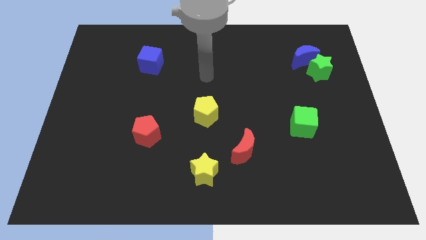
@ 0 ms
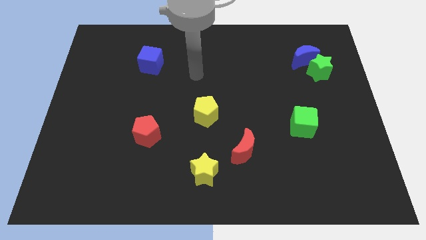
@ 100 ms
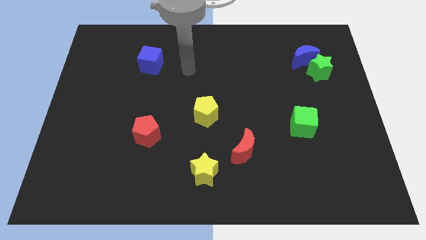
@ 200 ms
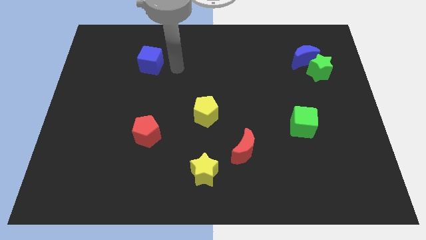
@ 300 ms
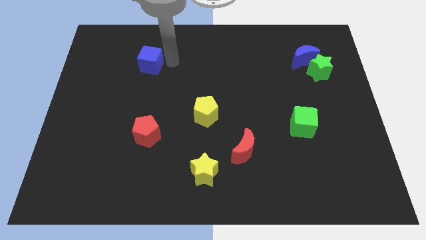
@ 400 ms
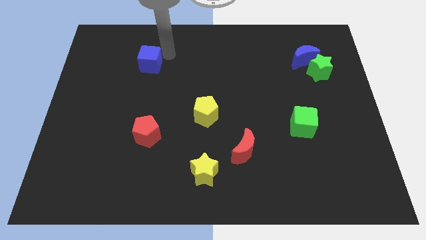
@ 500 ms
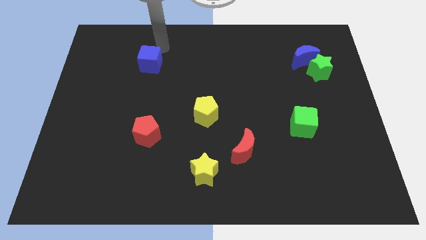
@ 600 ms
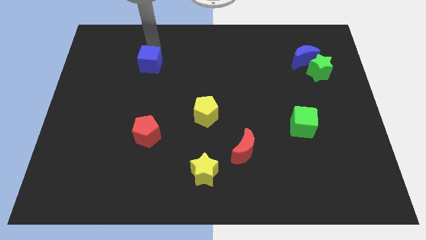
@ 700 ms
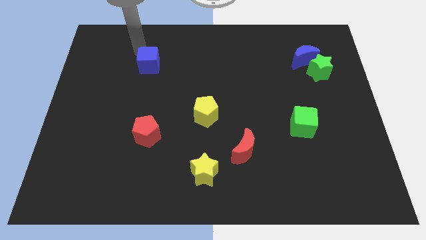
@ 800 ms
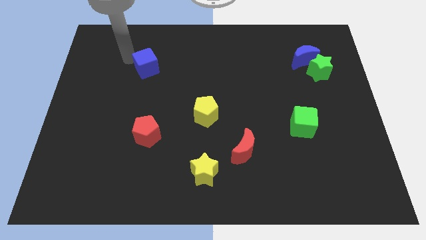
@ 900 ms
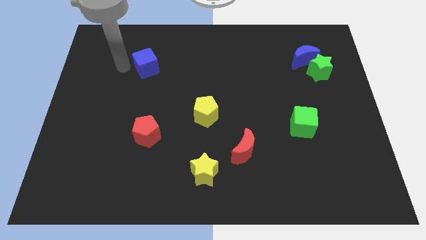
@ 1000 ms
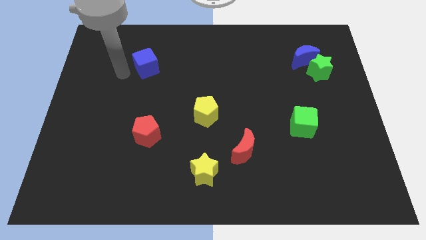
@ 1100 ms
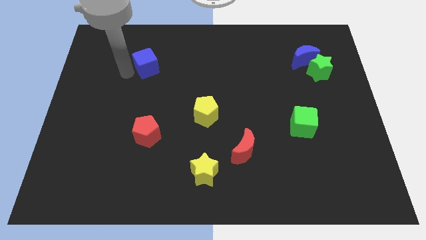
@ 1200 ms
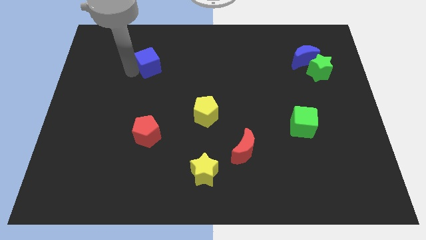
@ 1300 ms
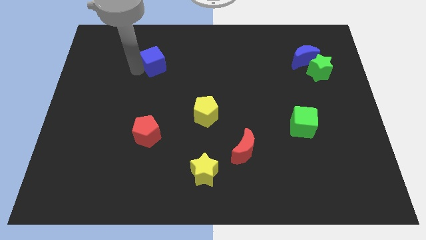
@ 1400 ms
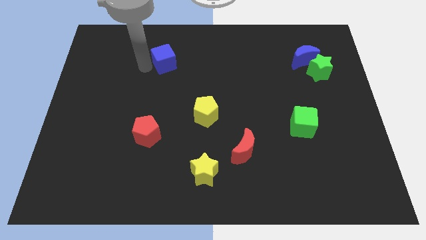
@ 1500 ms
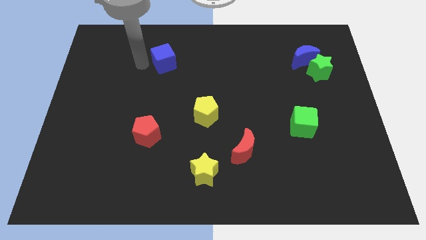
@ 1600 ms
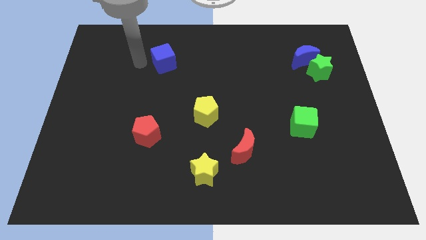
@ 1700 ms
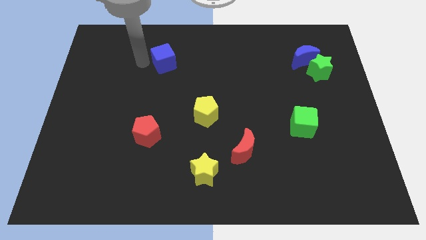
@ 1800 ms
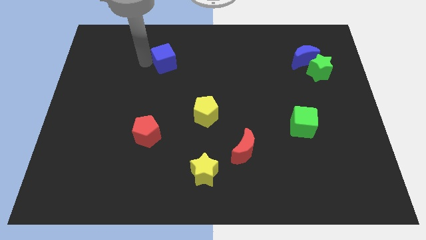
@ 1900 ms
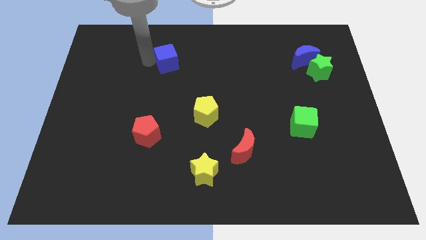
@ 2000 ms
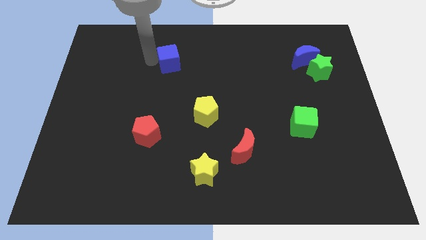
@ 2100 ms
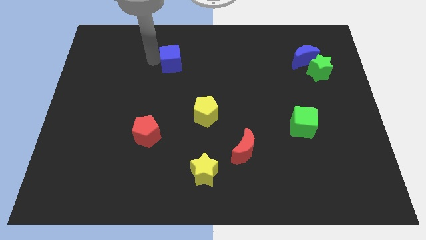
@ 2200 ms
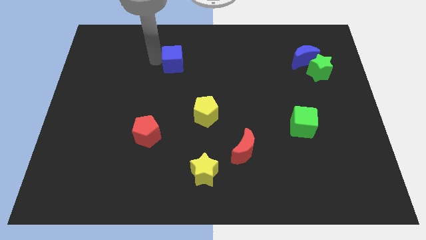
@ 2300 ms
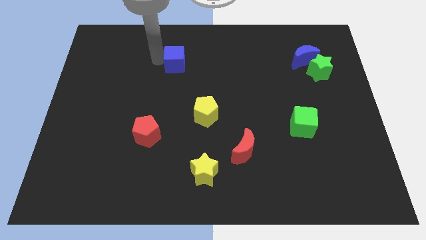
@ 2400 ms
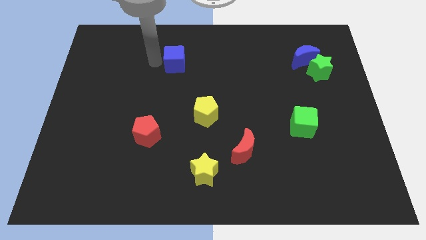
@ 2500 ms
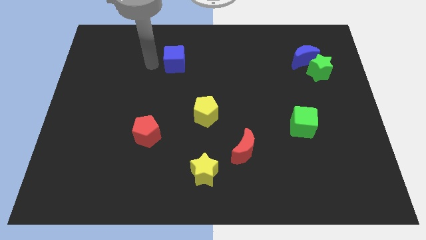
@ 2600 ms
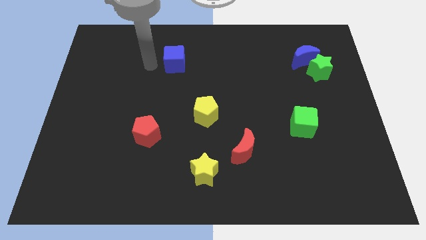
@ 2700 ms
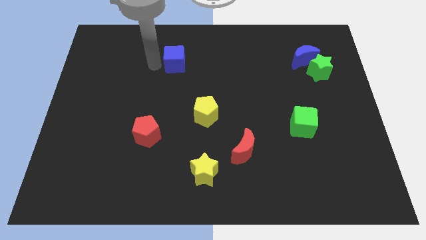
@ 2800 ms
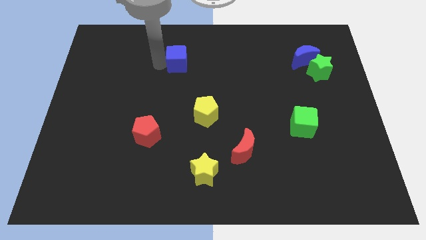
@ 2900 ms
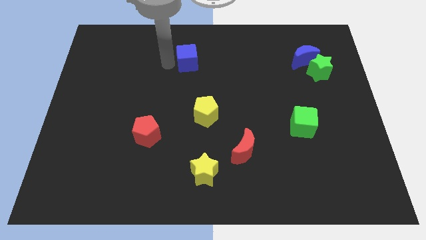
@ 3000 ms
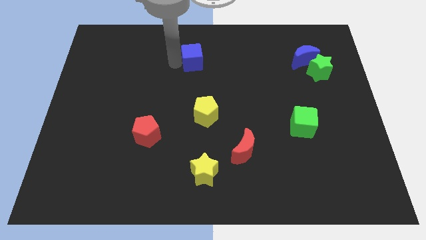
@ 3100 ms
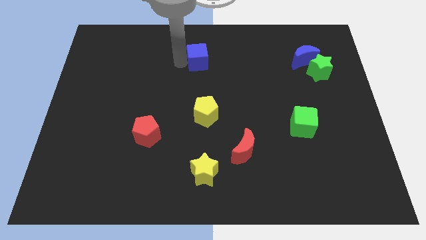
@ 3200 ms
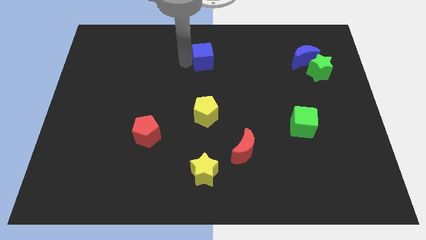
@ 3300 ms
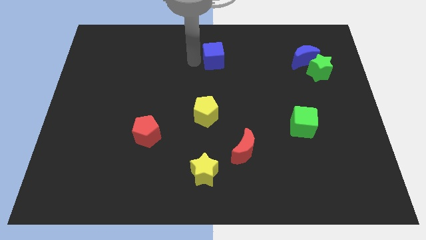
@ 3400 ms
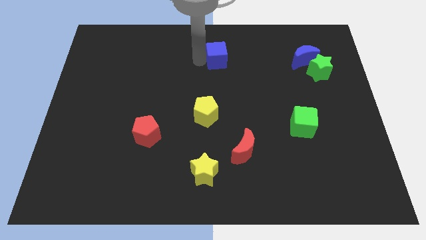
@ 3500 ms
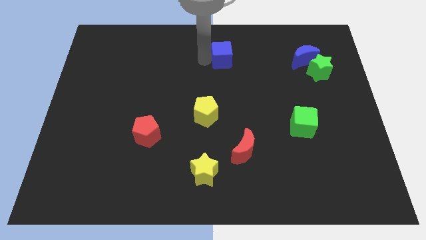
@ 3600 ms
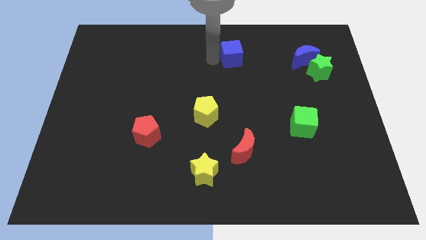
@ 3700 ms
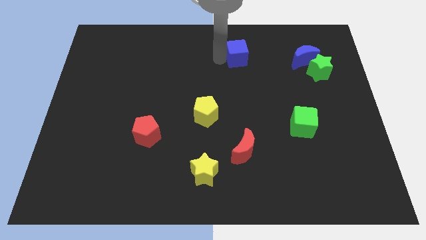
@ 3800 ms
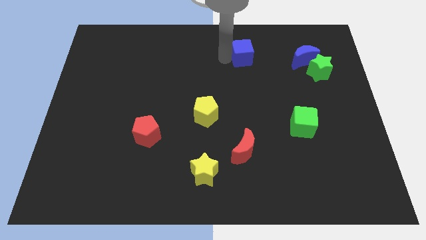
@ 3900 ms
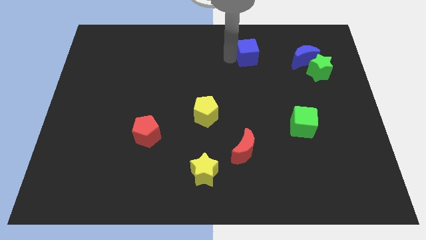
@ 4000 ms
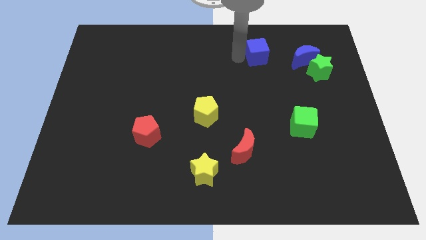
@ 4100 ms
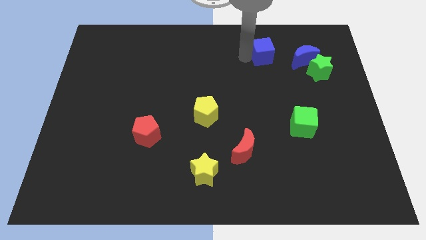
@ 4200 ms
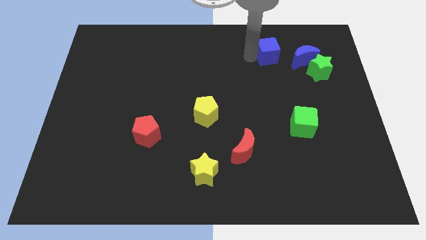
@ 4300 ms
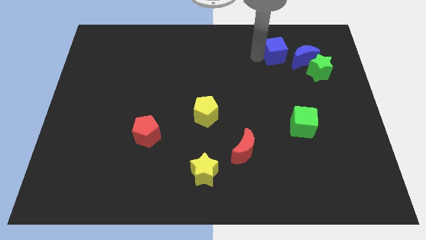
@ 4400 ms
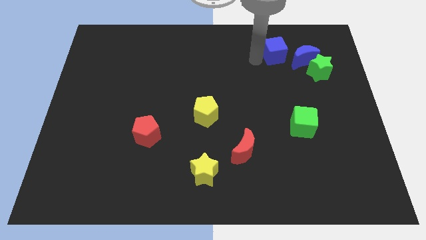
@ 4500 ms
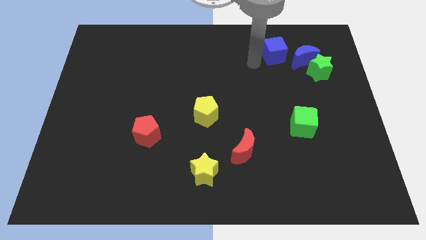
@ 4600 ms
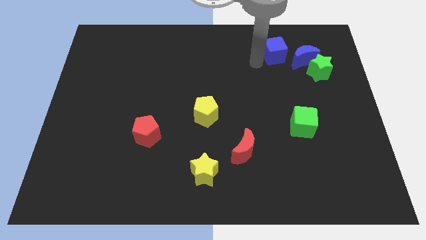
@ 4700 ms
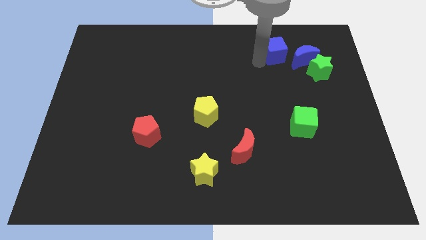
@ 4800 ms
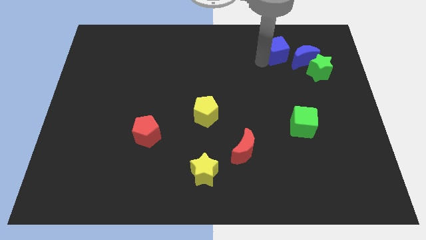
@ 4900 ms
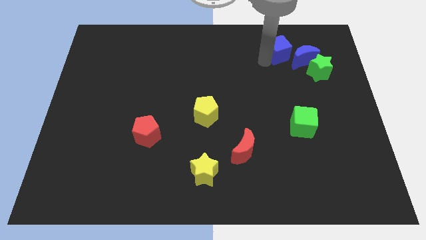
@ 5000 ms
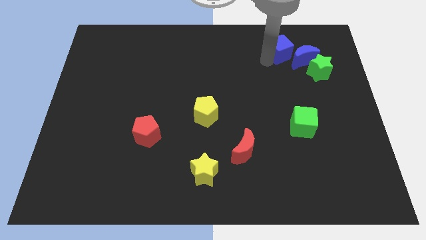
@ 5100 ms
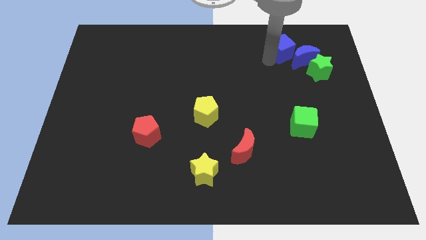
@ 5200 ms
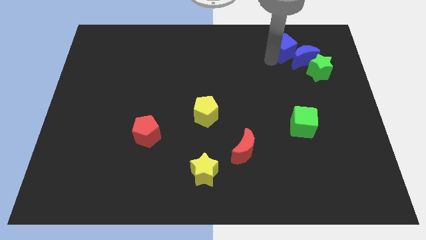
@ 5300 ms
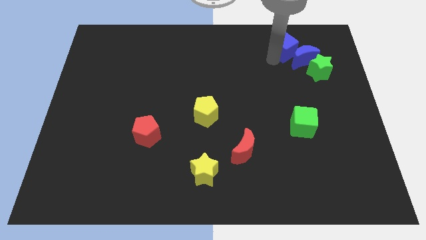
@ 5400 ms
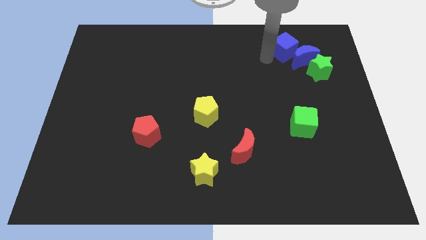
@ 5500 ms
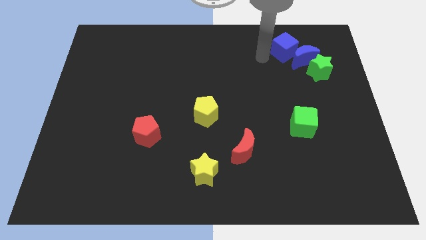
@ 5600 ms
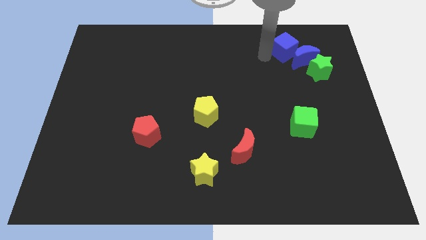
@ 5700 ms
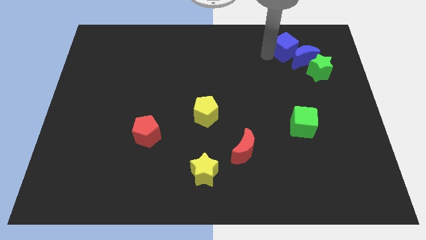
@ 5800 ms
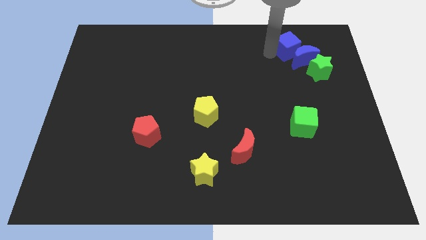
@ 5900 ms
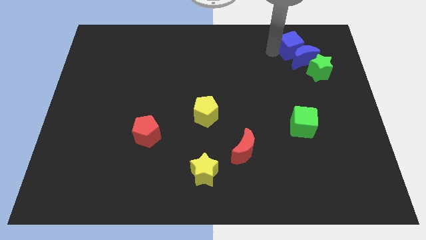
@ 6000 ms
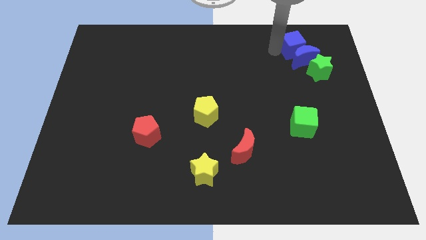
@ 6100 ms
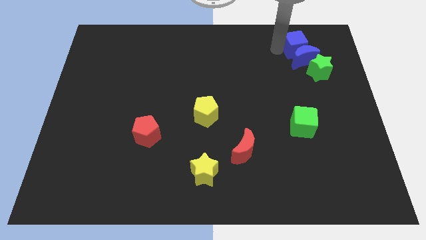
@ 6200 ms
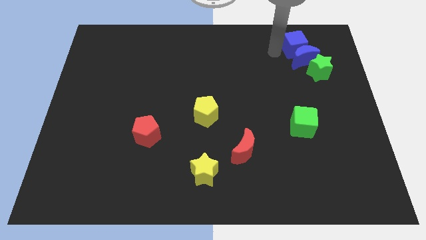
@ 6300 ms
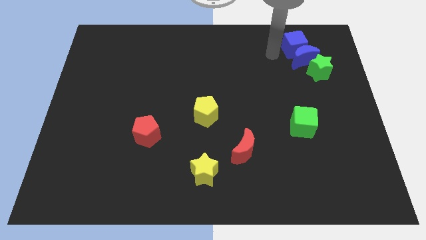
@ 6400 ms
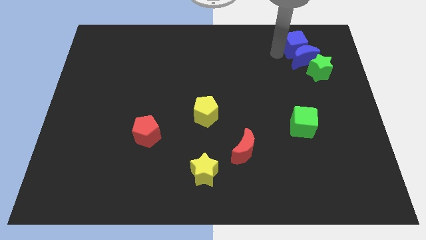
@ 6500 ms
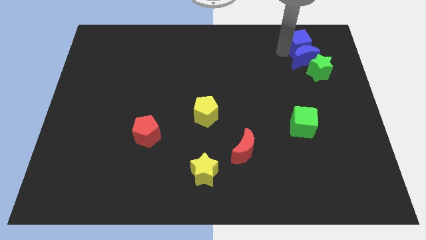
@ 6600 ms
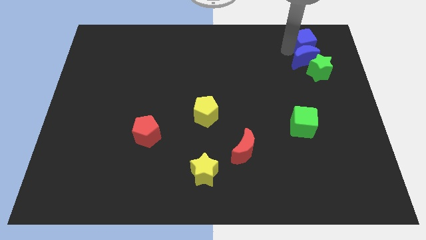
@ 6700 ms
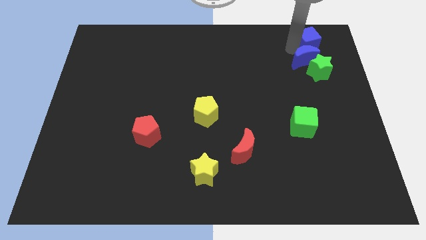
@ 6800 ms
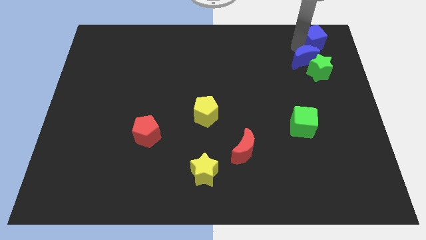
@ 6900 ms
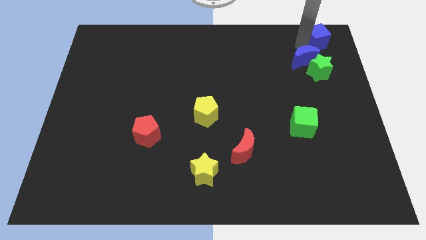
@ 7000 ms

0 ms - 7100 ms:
slide the blue cube to the top right
